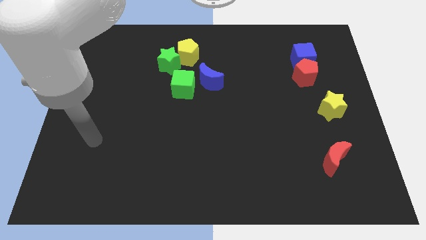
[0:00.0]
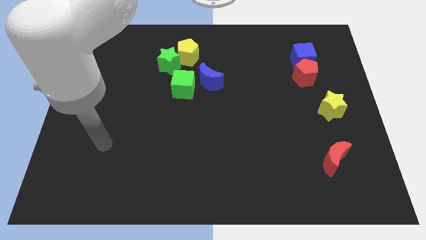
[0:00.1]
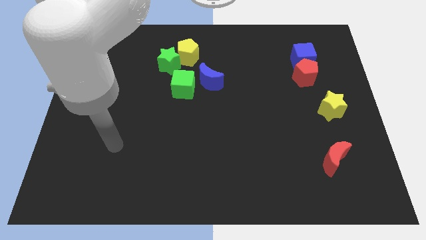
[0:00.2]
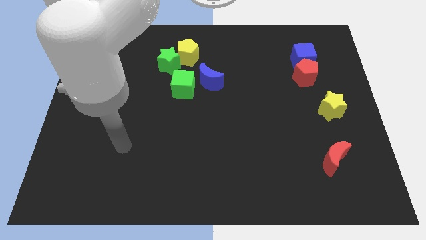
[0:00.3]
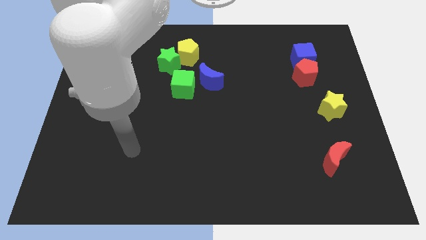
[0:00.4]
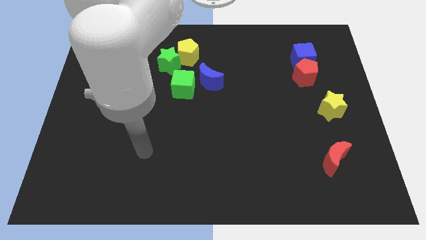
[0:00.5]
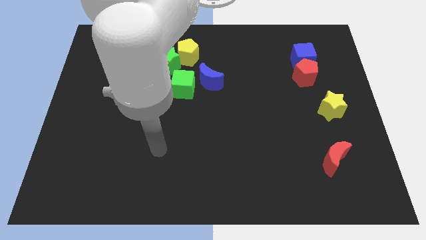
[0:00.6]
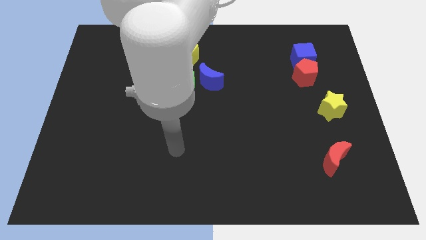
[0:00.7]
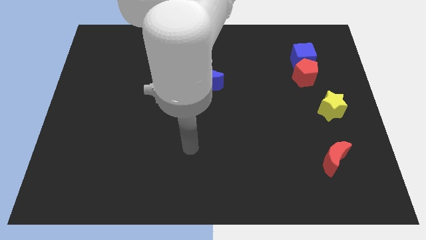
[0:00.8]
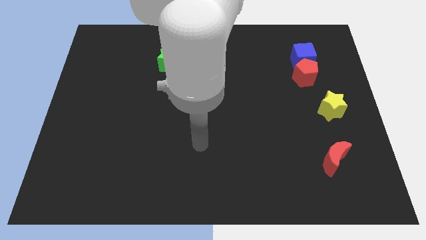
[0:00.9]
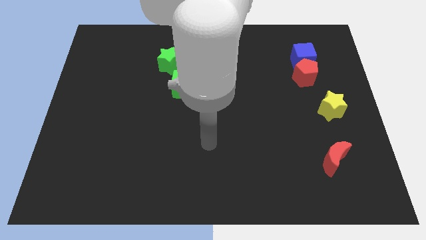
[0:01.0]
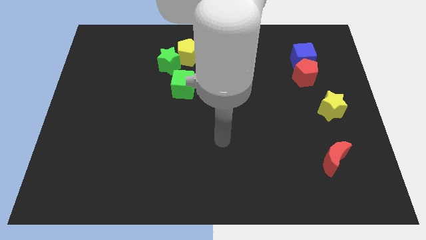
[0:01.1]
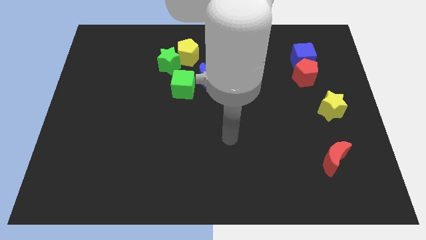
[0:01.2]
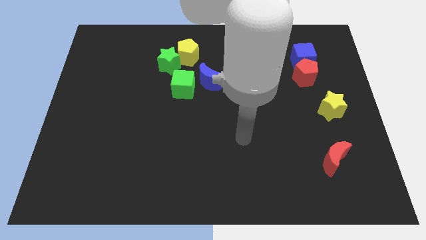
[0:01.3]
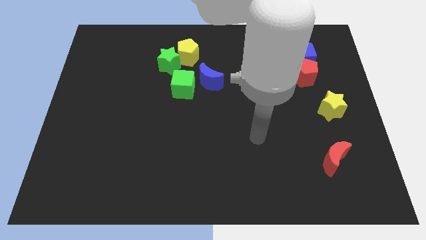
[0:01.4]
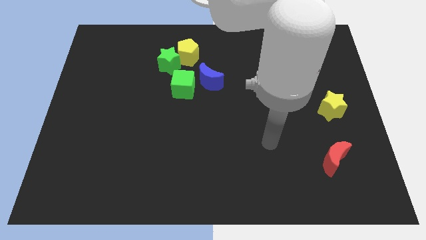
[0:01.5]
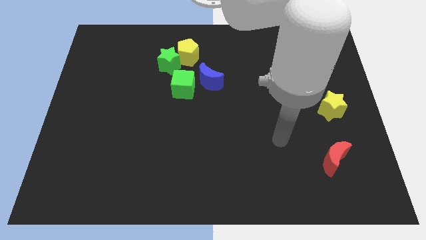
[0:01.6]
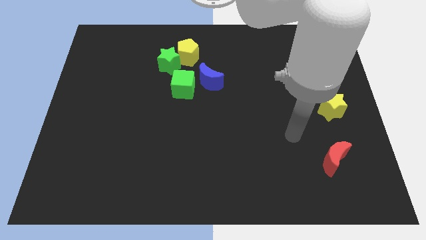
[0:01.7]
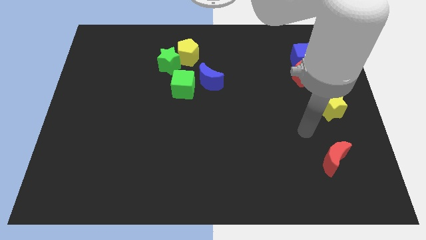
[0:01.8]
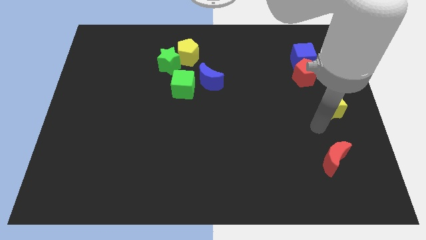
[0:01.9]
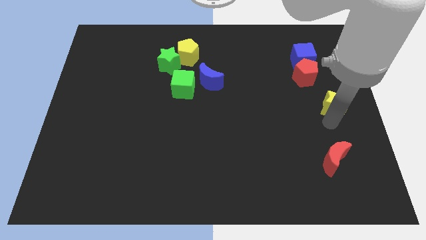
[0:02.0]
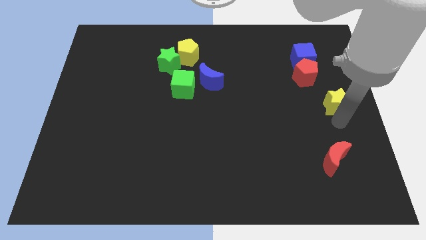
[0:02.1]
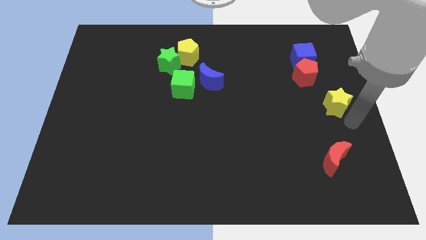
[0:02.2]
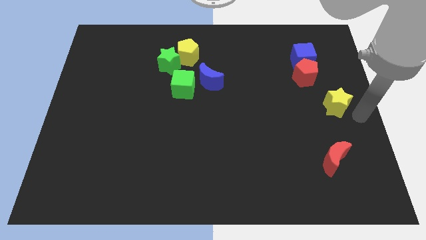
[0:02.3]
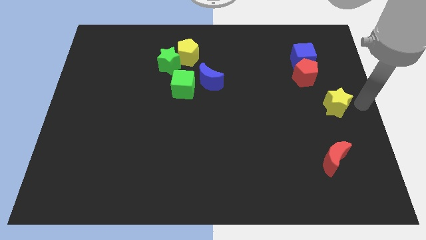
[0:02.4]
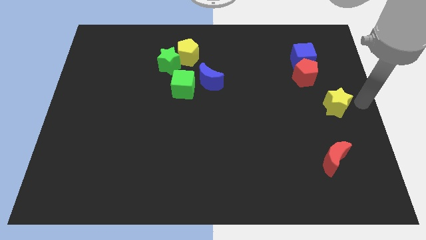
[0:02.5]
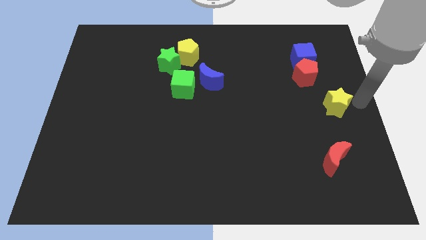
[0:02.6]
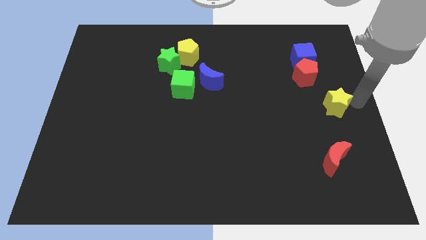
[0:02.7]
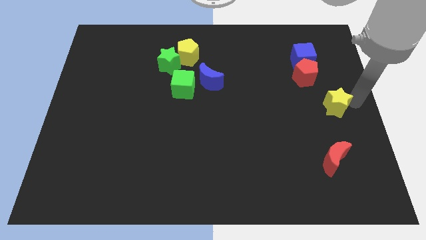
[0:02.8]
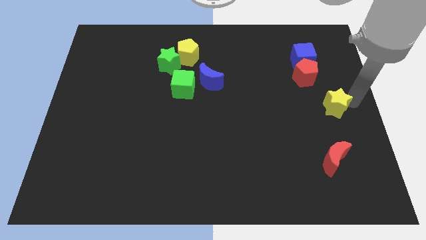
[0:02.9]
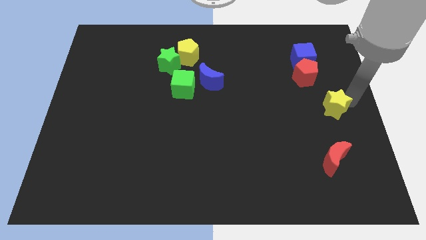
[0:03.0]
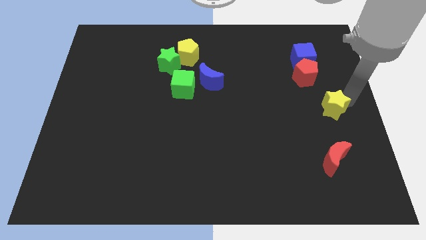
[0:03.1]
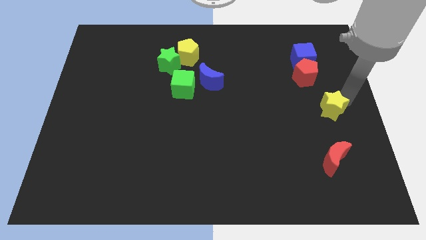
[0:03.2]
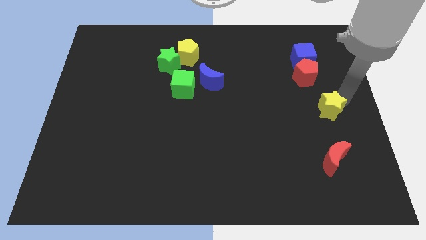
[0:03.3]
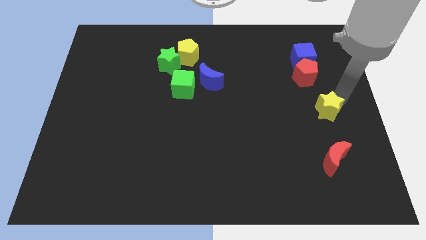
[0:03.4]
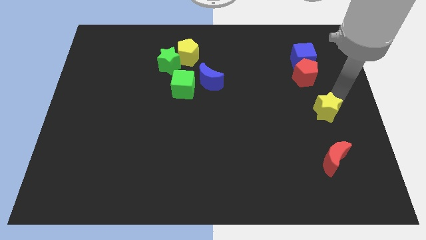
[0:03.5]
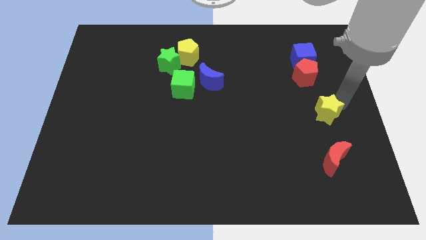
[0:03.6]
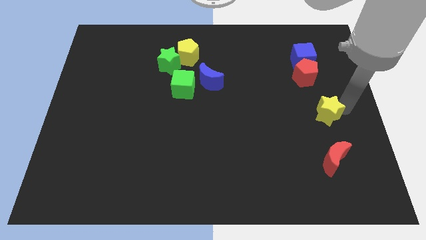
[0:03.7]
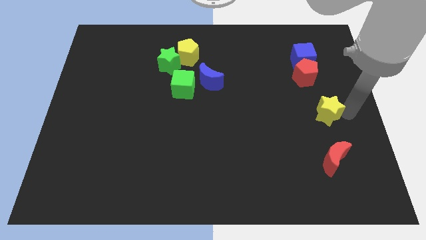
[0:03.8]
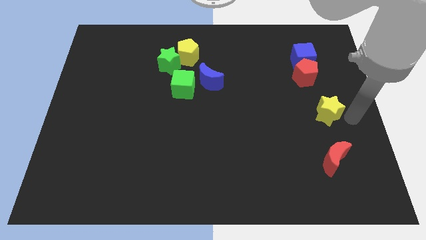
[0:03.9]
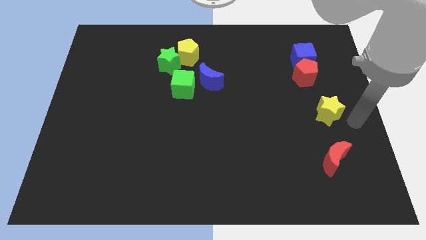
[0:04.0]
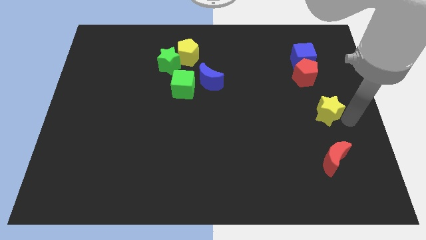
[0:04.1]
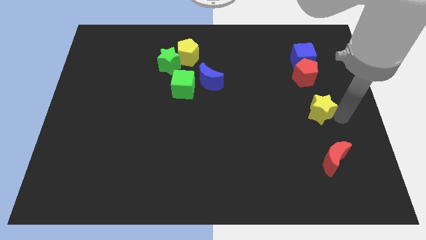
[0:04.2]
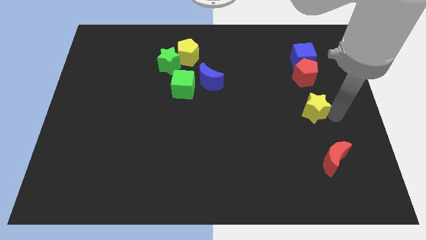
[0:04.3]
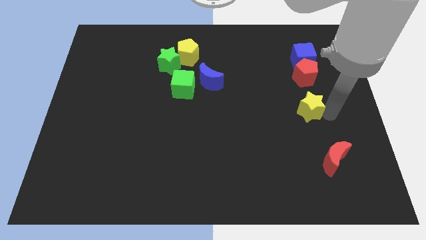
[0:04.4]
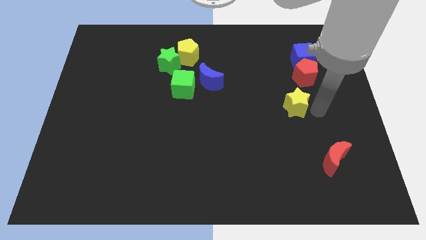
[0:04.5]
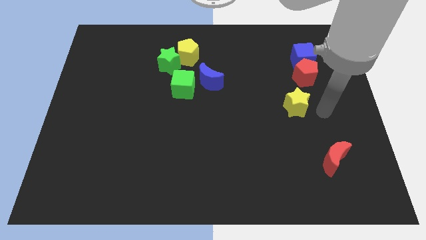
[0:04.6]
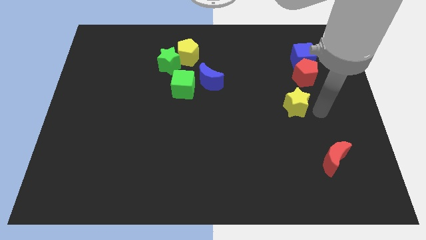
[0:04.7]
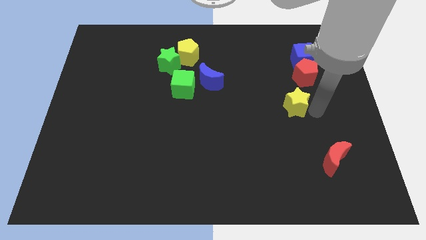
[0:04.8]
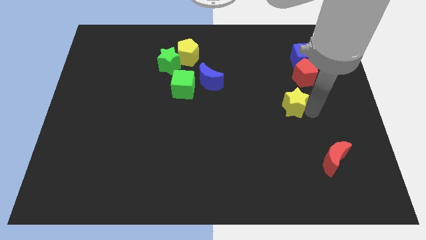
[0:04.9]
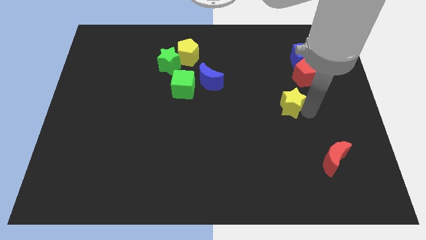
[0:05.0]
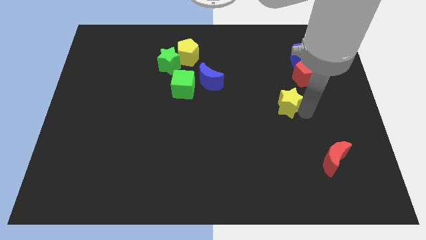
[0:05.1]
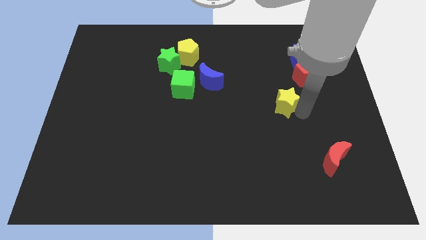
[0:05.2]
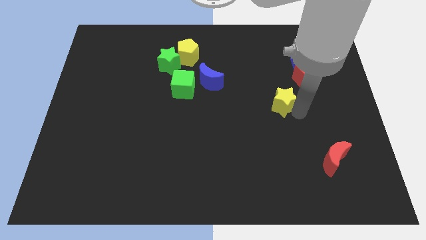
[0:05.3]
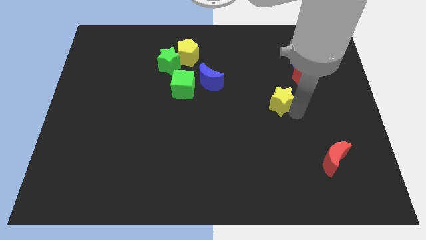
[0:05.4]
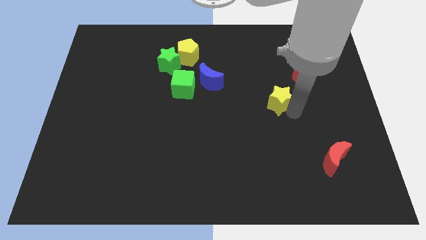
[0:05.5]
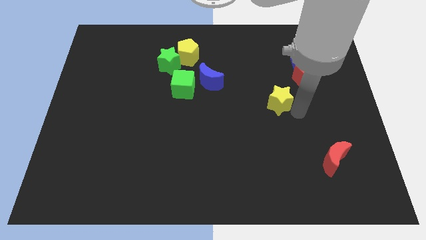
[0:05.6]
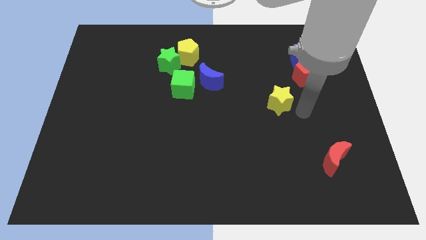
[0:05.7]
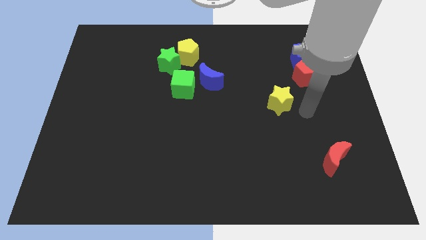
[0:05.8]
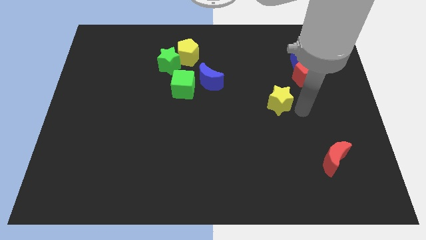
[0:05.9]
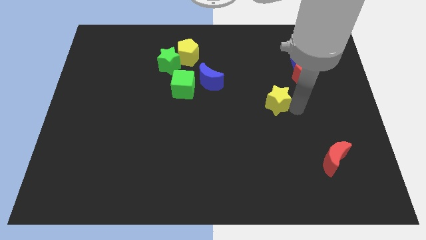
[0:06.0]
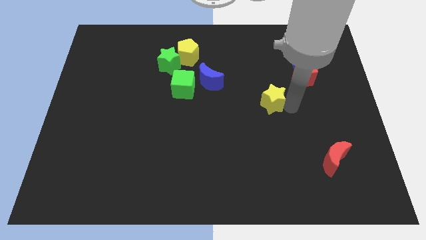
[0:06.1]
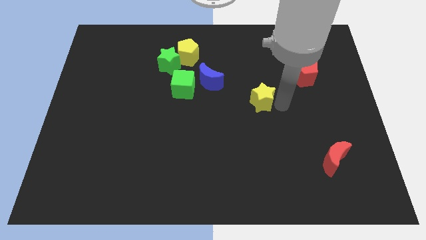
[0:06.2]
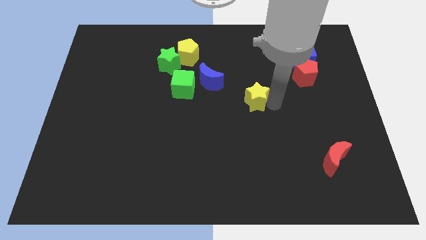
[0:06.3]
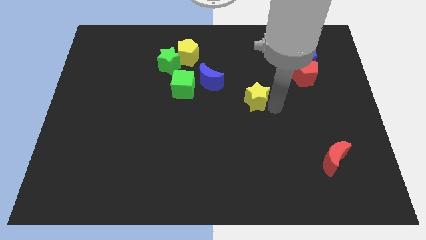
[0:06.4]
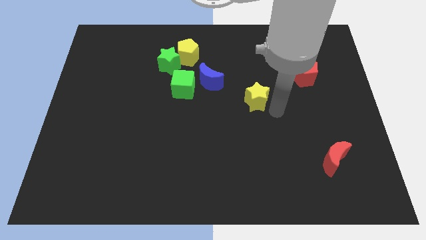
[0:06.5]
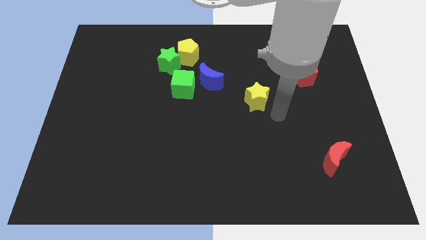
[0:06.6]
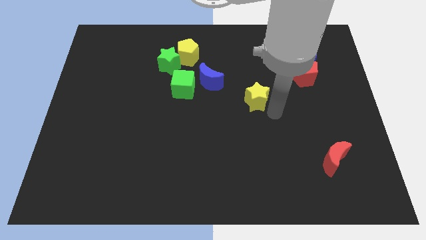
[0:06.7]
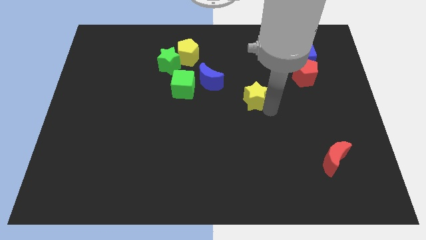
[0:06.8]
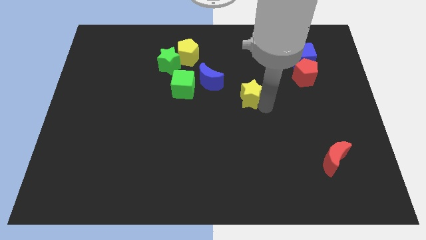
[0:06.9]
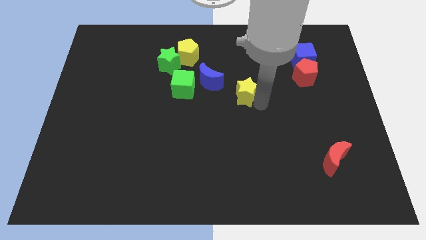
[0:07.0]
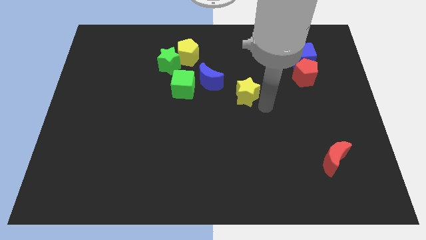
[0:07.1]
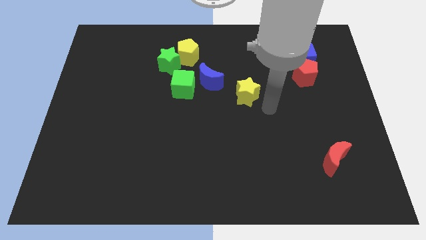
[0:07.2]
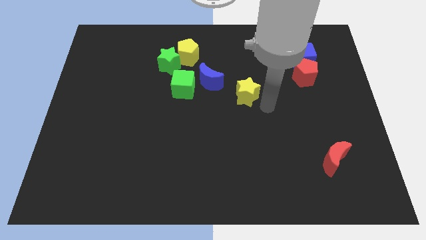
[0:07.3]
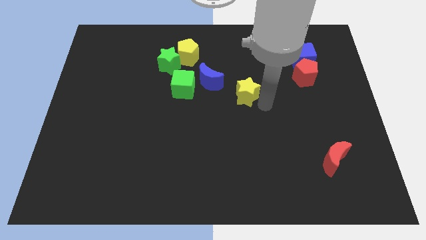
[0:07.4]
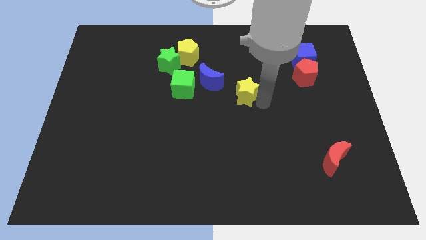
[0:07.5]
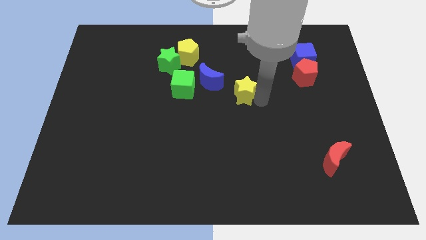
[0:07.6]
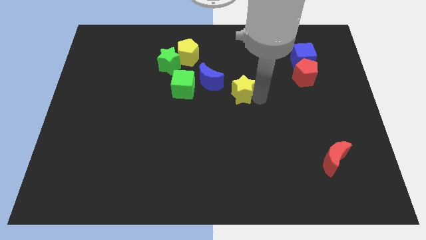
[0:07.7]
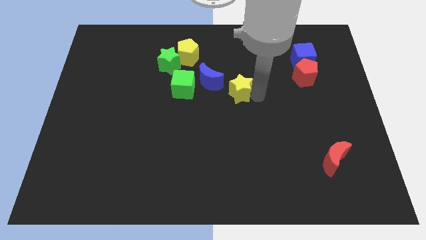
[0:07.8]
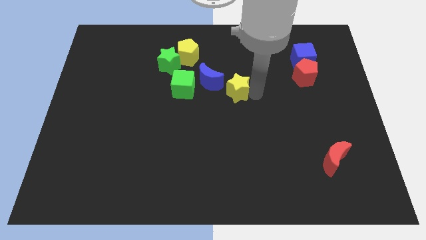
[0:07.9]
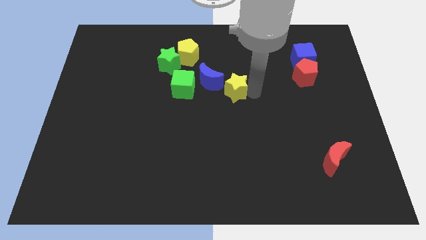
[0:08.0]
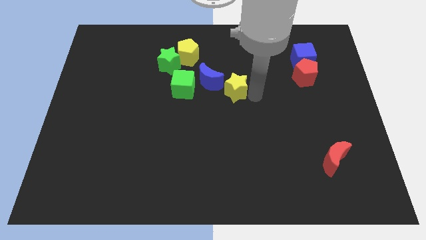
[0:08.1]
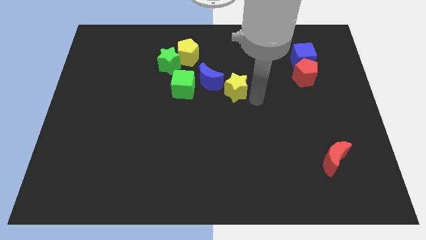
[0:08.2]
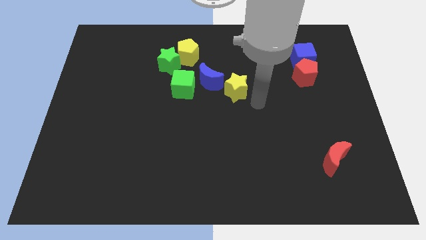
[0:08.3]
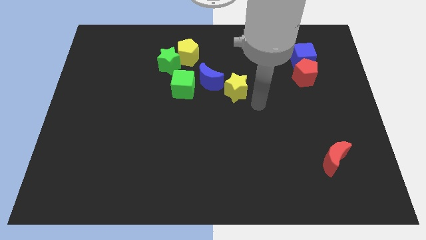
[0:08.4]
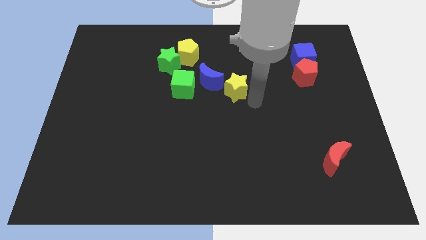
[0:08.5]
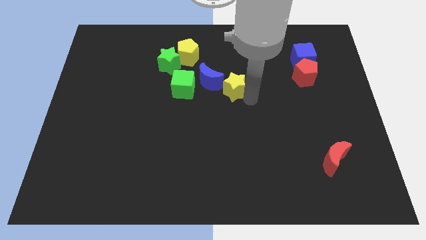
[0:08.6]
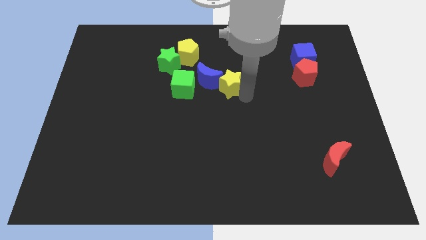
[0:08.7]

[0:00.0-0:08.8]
put the yellow star close to the blue moon
